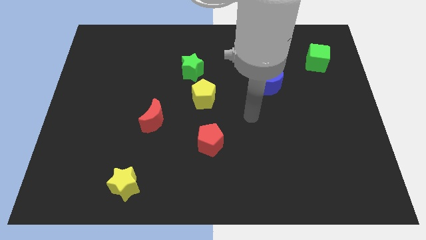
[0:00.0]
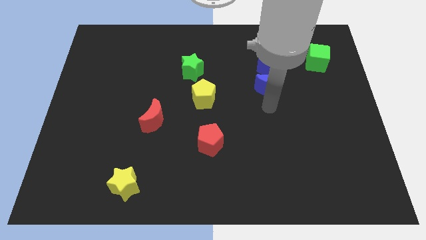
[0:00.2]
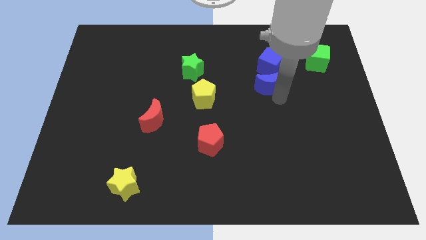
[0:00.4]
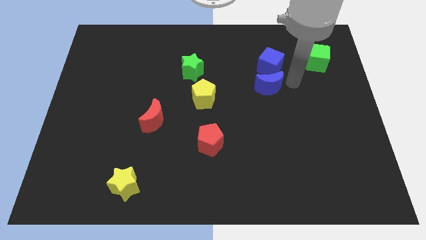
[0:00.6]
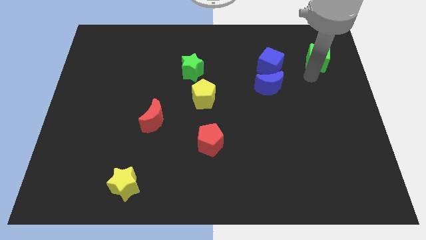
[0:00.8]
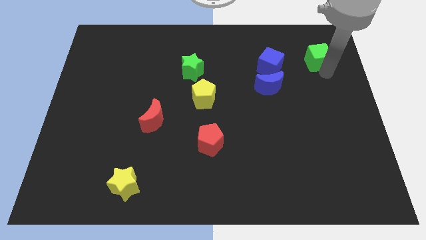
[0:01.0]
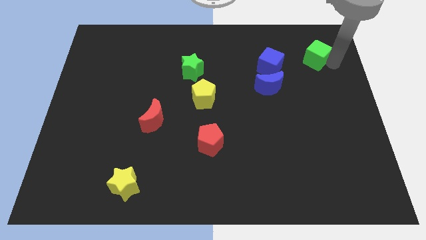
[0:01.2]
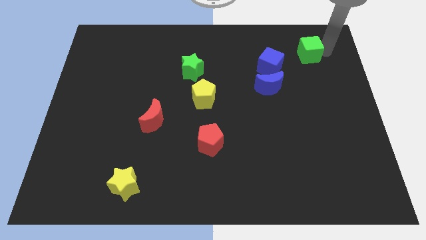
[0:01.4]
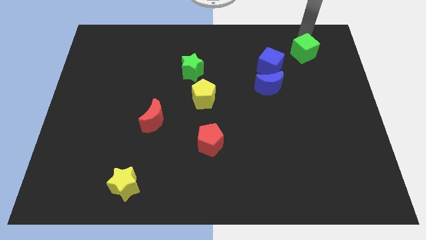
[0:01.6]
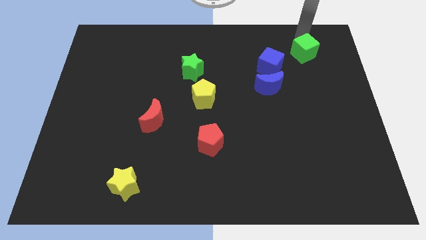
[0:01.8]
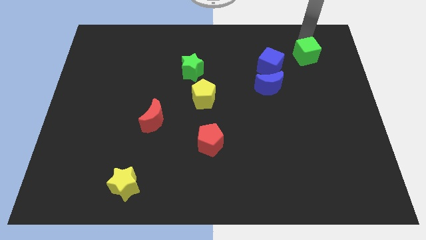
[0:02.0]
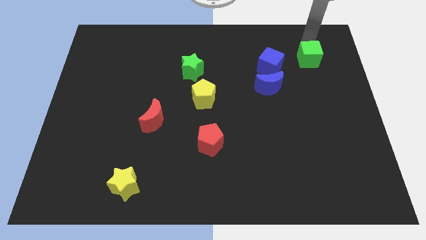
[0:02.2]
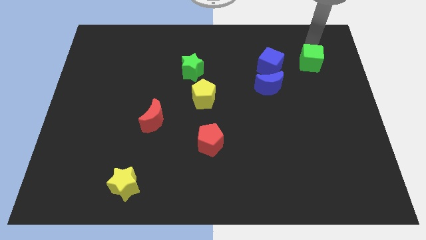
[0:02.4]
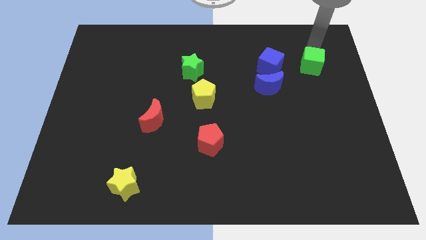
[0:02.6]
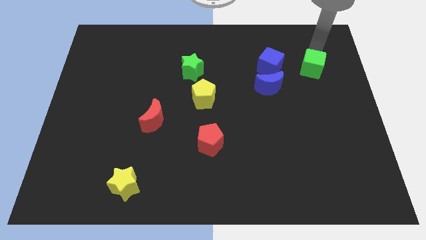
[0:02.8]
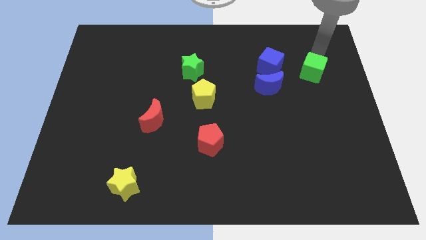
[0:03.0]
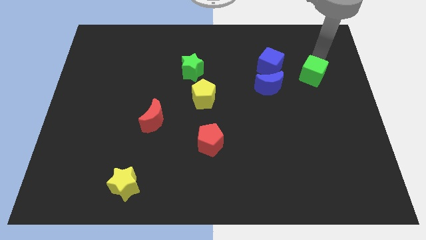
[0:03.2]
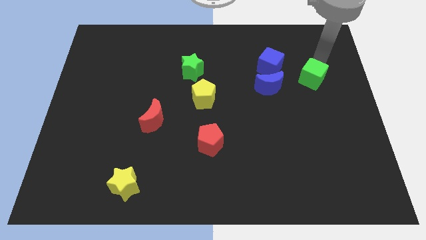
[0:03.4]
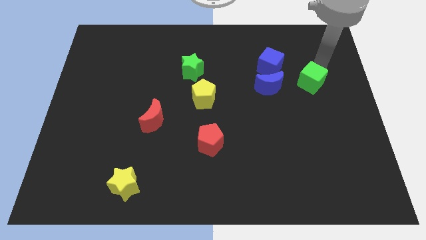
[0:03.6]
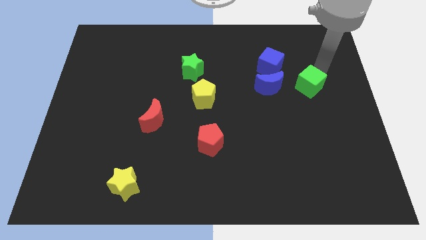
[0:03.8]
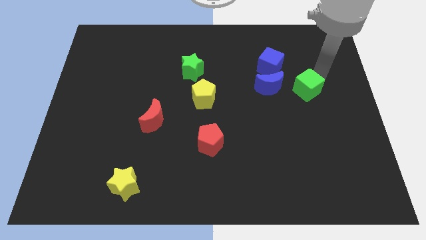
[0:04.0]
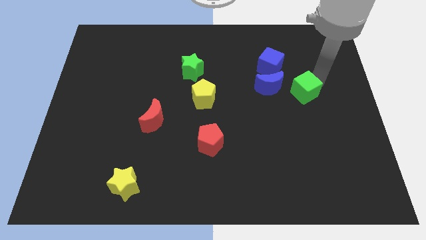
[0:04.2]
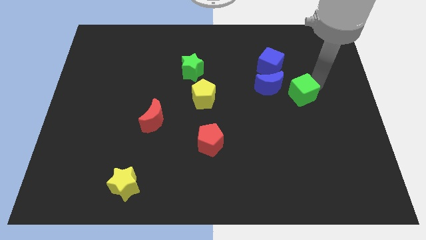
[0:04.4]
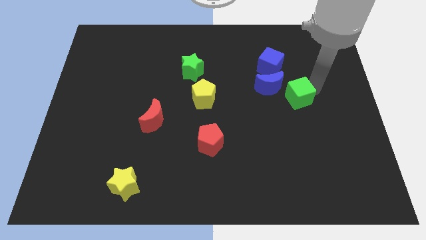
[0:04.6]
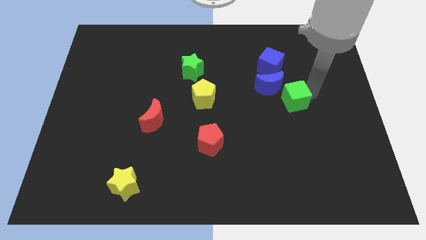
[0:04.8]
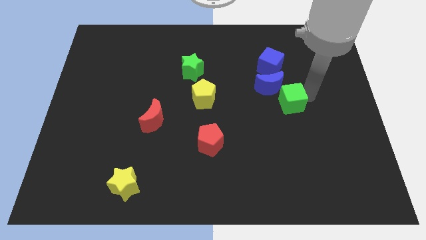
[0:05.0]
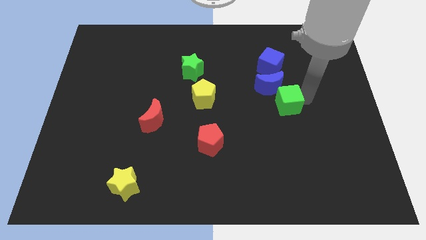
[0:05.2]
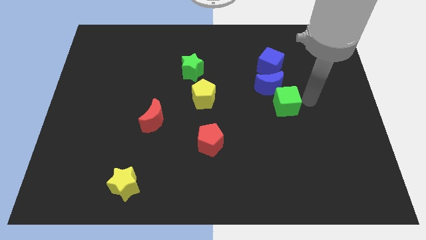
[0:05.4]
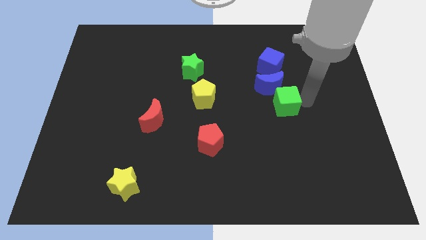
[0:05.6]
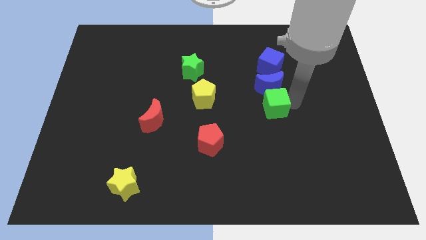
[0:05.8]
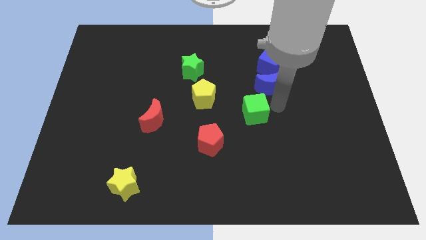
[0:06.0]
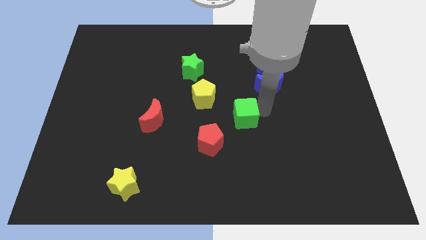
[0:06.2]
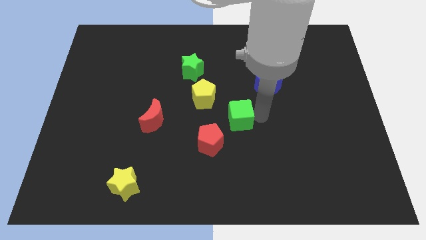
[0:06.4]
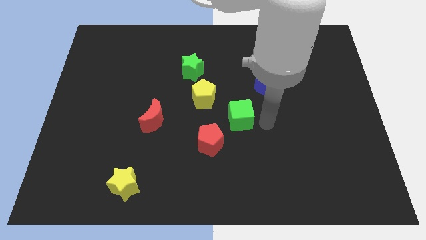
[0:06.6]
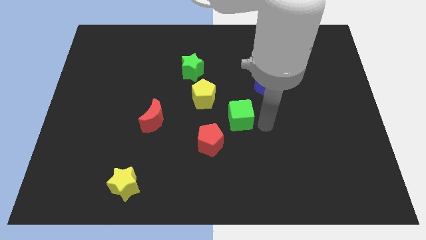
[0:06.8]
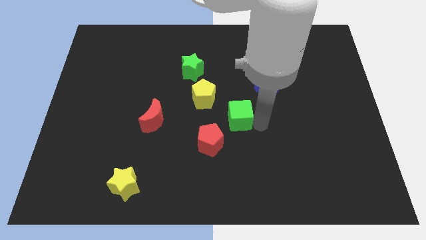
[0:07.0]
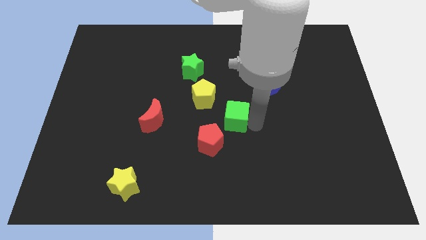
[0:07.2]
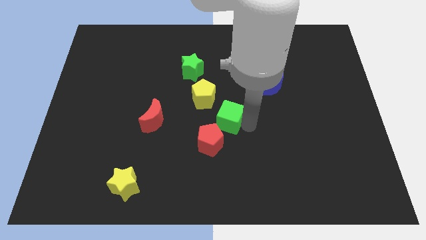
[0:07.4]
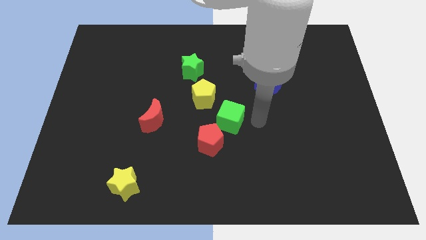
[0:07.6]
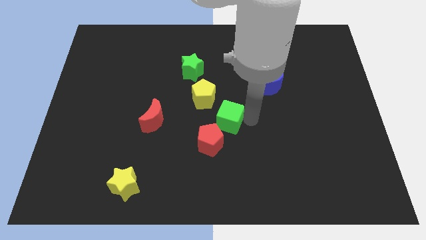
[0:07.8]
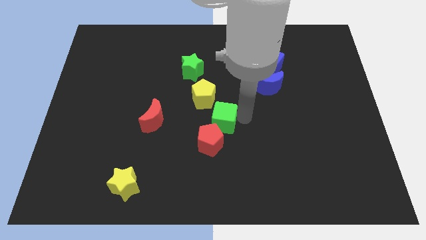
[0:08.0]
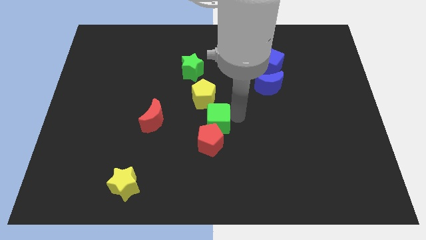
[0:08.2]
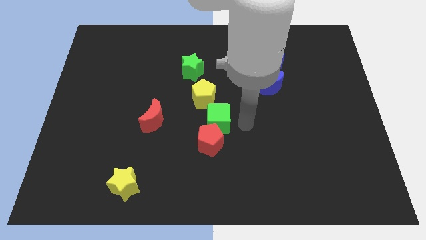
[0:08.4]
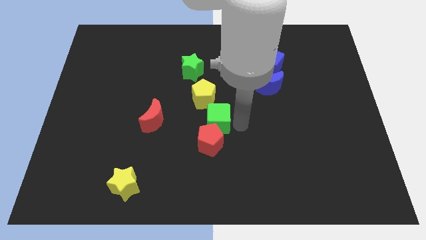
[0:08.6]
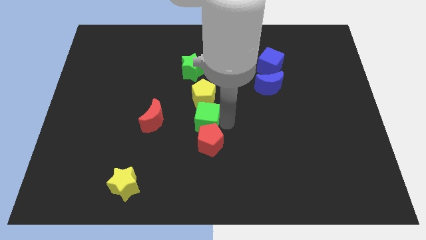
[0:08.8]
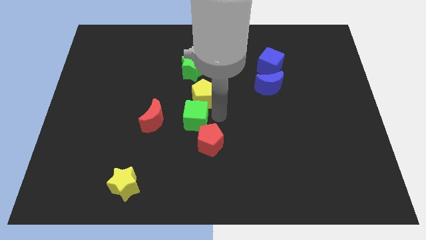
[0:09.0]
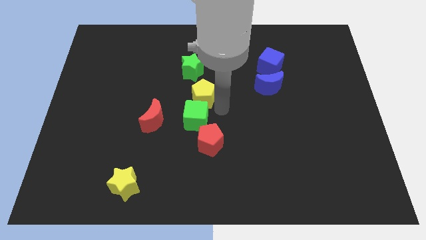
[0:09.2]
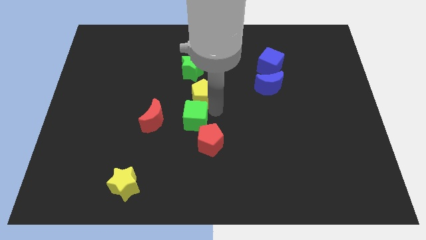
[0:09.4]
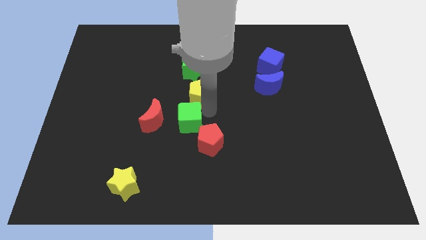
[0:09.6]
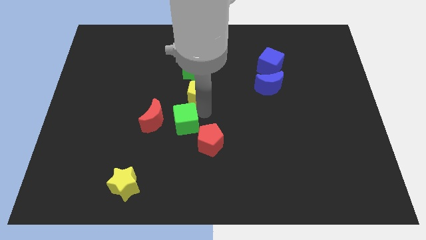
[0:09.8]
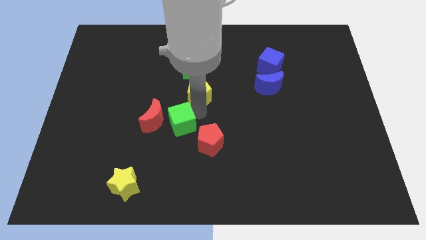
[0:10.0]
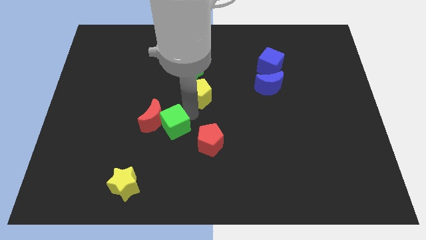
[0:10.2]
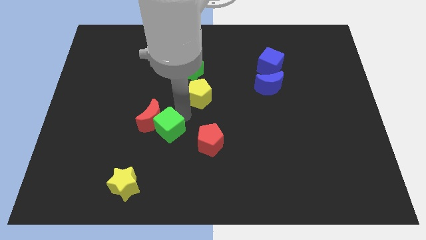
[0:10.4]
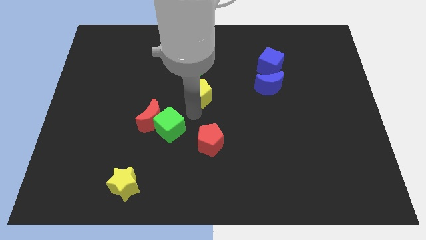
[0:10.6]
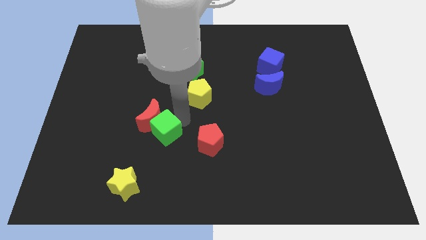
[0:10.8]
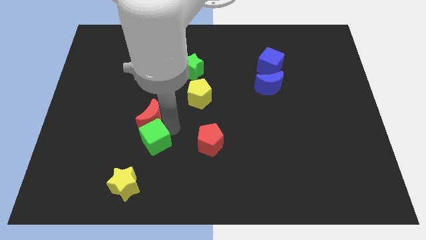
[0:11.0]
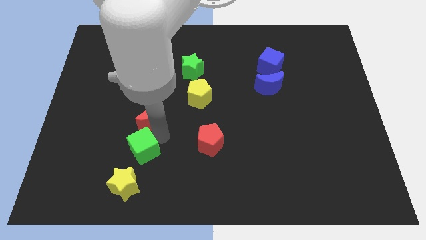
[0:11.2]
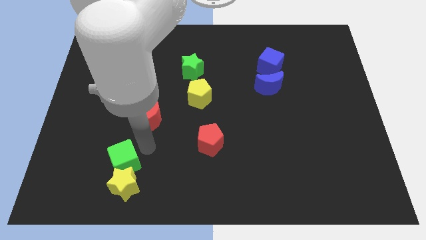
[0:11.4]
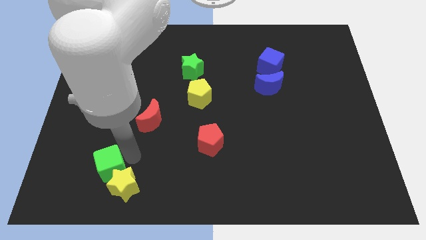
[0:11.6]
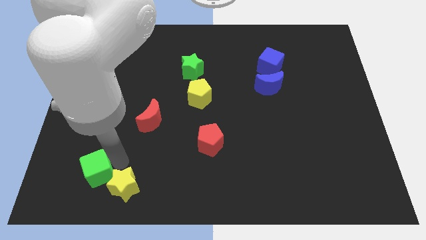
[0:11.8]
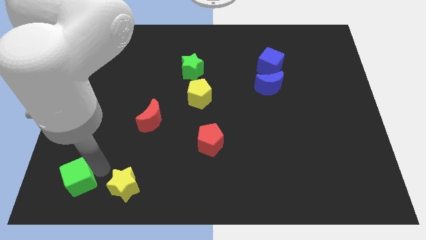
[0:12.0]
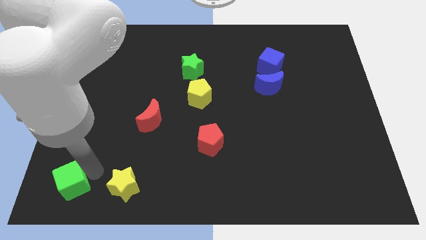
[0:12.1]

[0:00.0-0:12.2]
put the green cube to the bottom left corner
